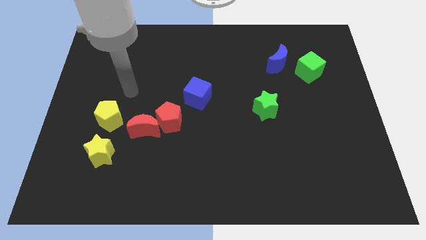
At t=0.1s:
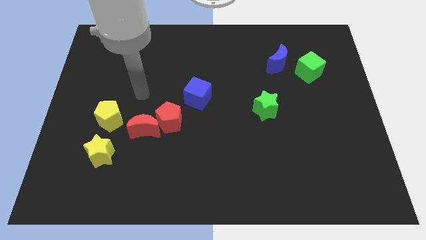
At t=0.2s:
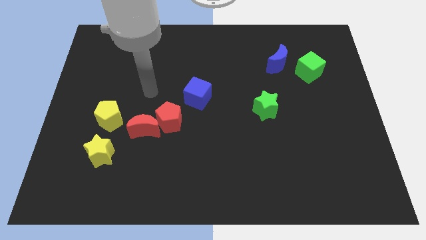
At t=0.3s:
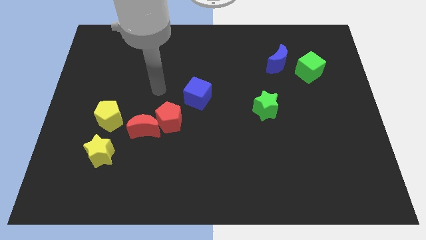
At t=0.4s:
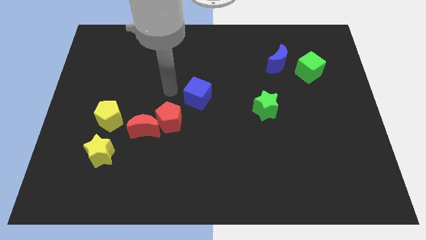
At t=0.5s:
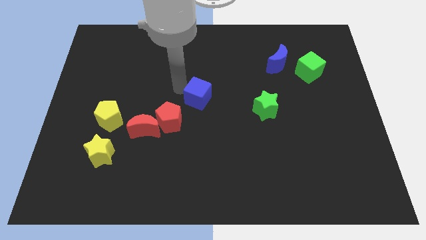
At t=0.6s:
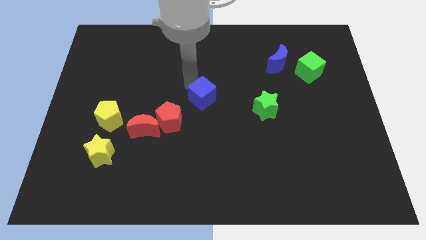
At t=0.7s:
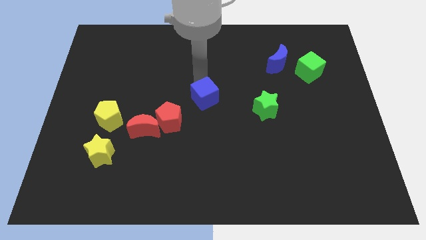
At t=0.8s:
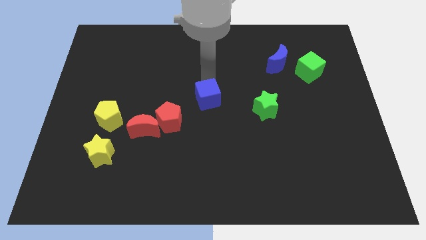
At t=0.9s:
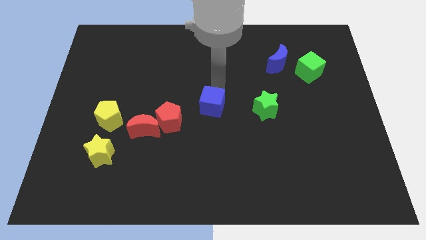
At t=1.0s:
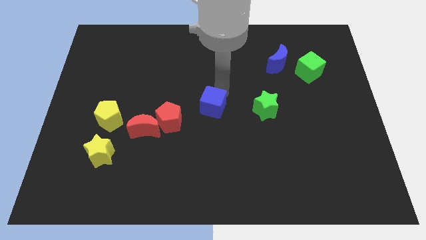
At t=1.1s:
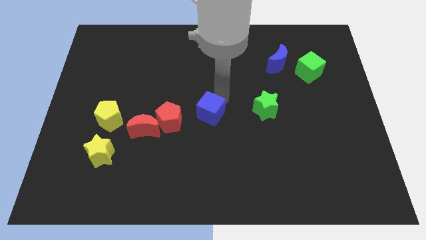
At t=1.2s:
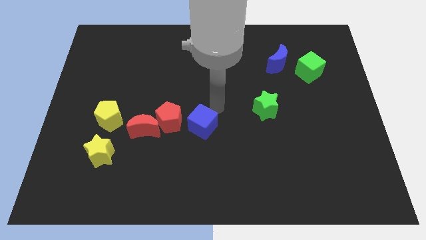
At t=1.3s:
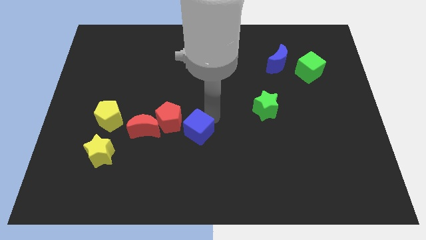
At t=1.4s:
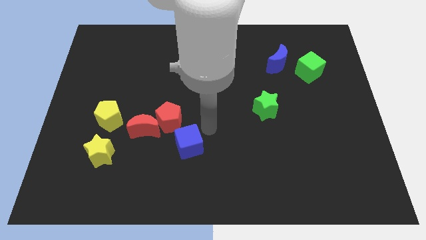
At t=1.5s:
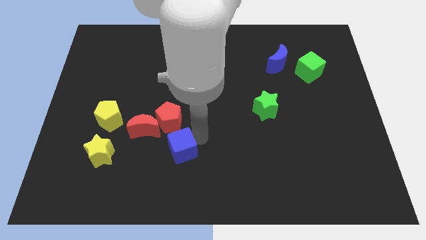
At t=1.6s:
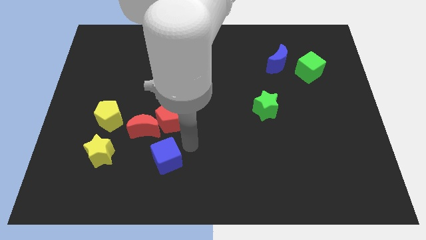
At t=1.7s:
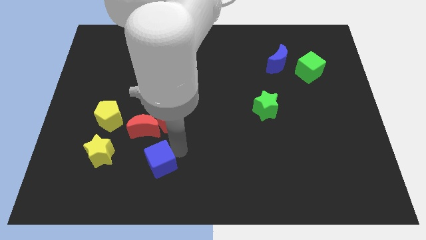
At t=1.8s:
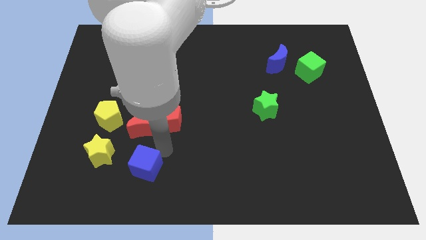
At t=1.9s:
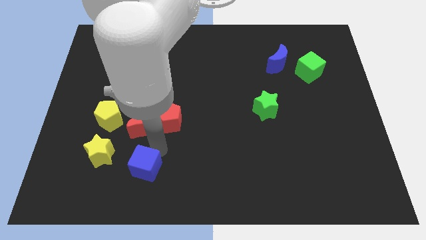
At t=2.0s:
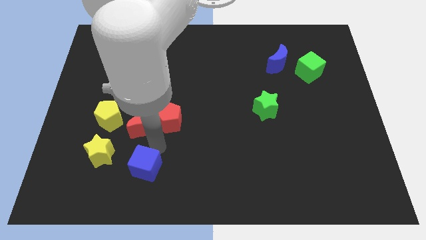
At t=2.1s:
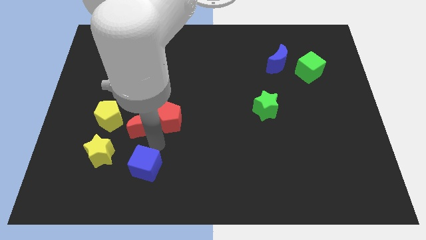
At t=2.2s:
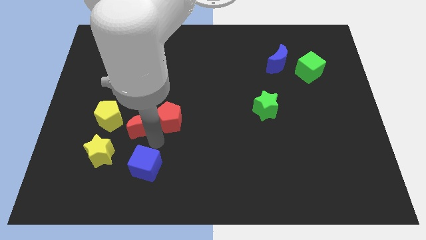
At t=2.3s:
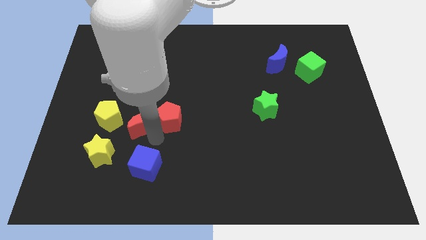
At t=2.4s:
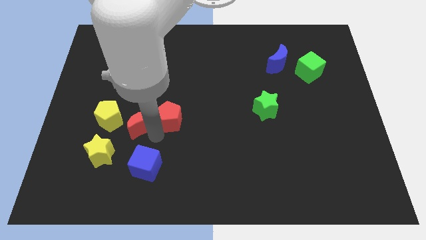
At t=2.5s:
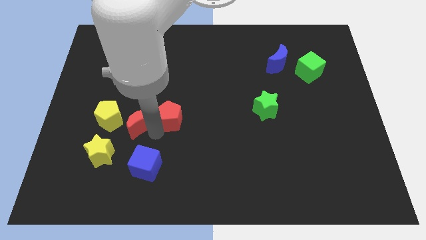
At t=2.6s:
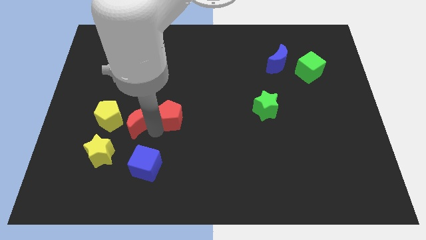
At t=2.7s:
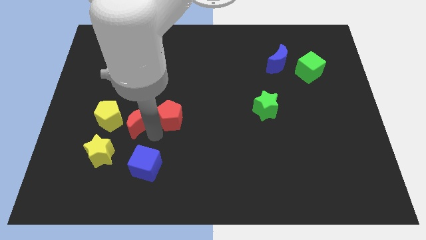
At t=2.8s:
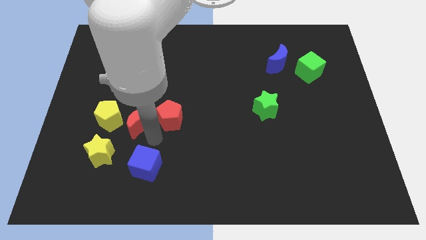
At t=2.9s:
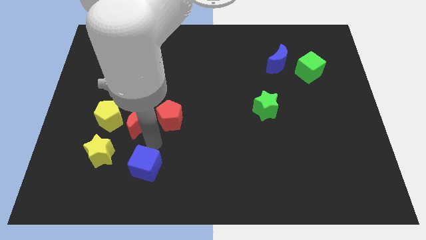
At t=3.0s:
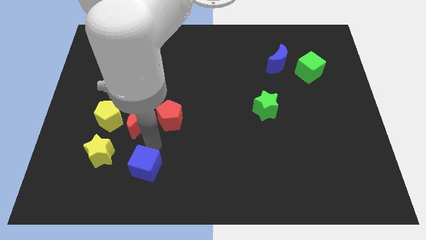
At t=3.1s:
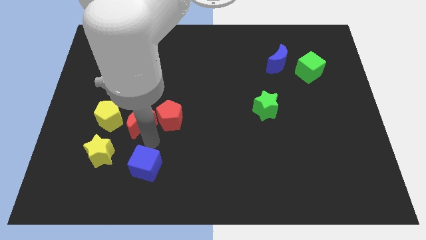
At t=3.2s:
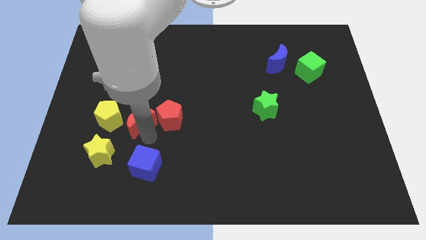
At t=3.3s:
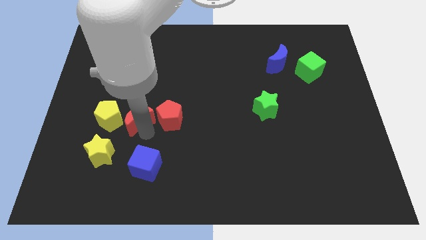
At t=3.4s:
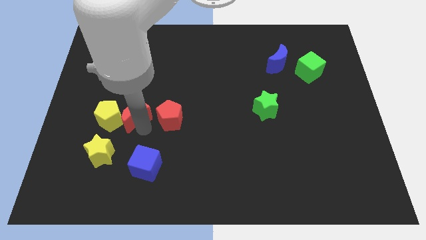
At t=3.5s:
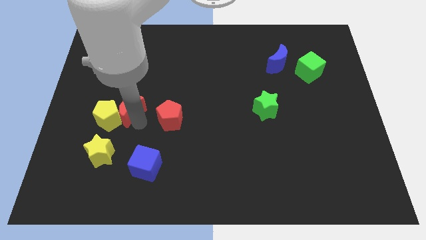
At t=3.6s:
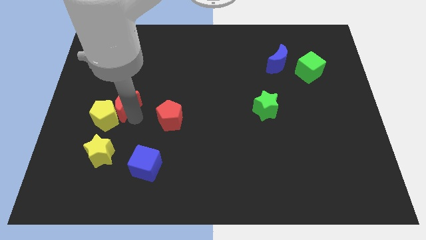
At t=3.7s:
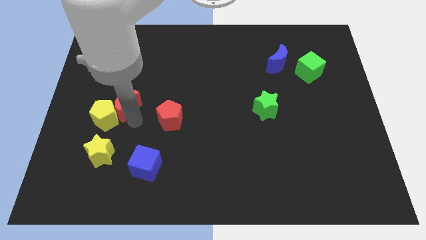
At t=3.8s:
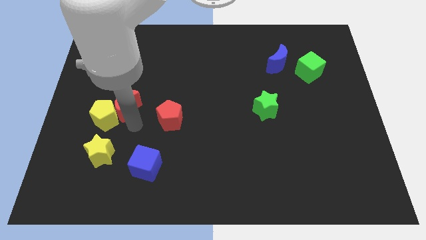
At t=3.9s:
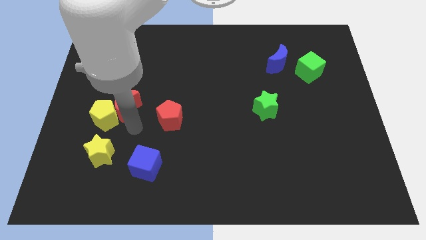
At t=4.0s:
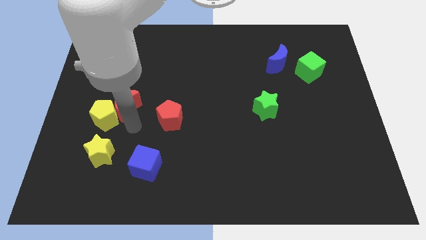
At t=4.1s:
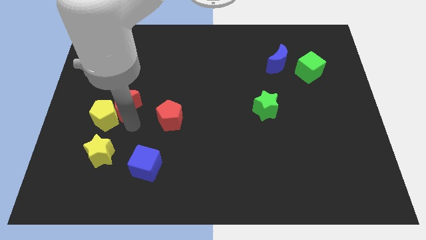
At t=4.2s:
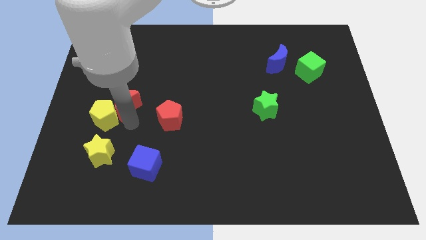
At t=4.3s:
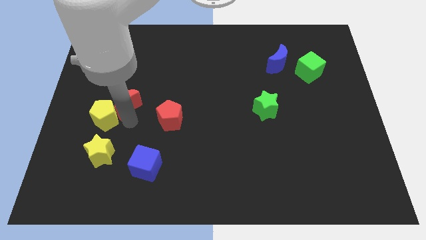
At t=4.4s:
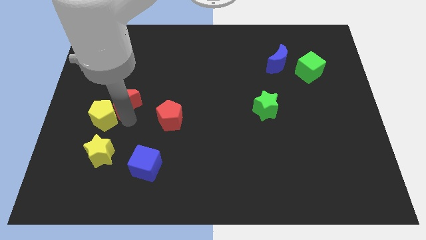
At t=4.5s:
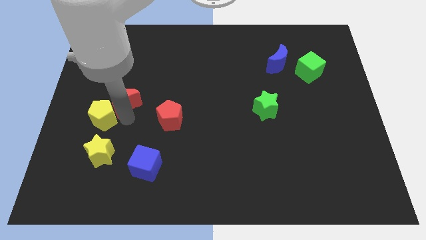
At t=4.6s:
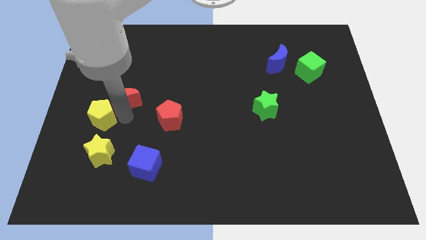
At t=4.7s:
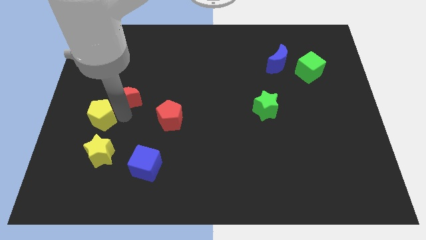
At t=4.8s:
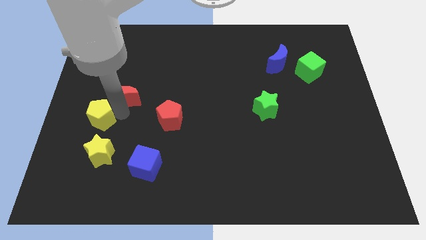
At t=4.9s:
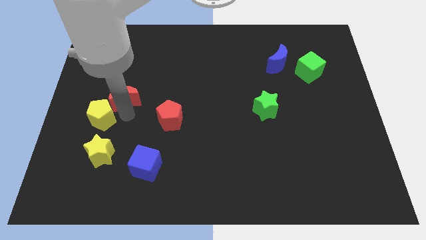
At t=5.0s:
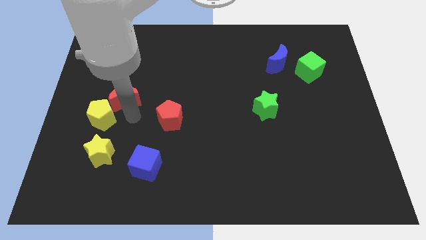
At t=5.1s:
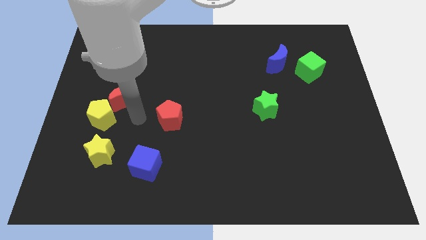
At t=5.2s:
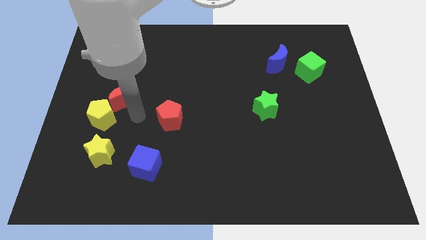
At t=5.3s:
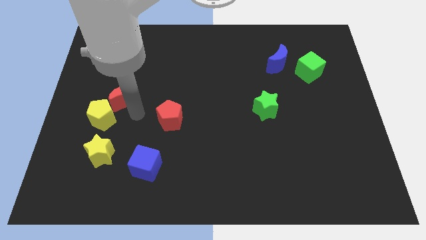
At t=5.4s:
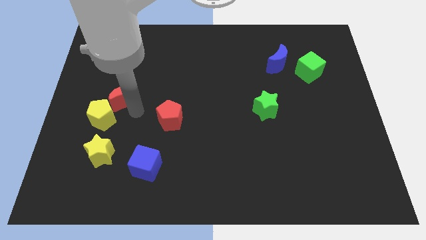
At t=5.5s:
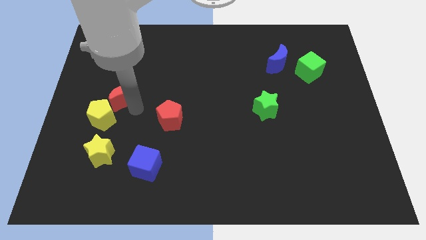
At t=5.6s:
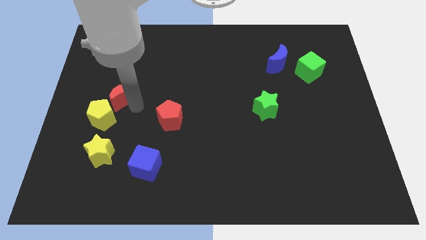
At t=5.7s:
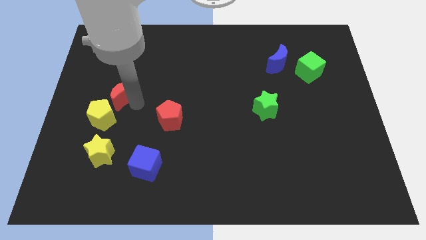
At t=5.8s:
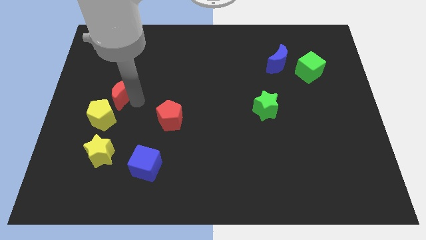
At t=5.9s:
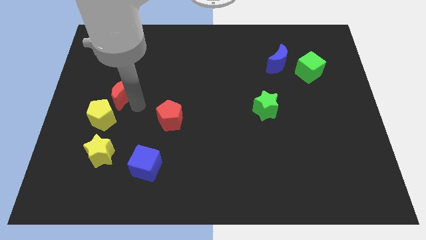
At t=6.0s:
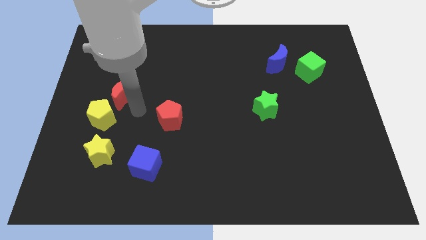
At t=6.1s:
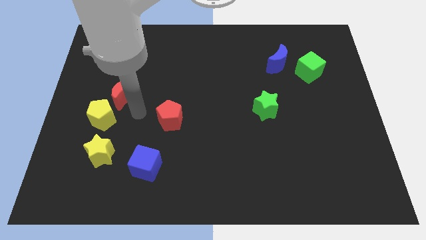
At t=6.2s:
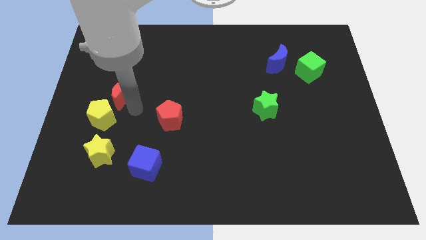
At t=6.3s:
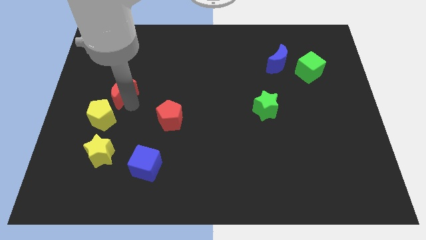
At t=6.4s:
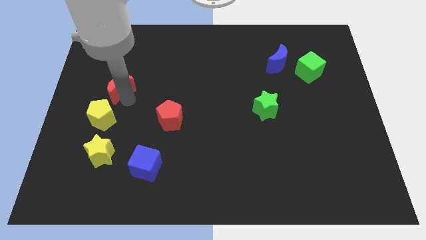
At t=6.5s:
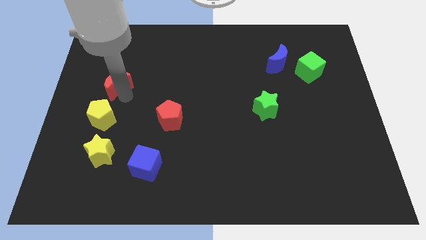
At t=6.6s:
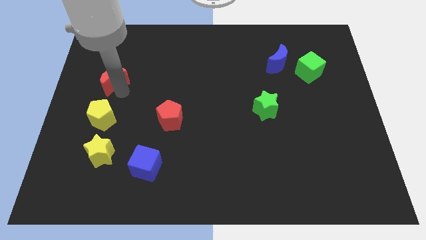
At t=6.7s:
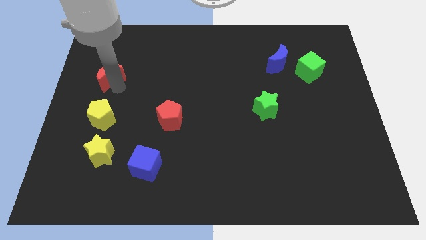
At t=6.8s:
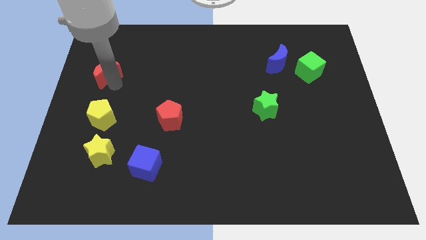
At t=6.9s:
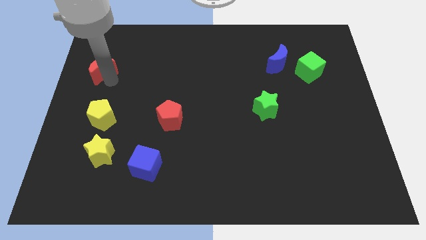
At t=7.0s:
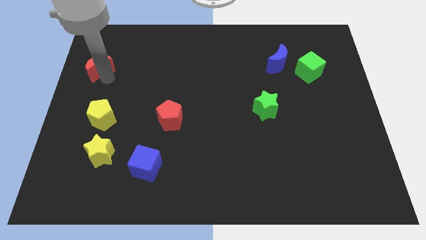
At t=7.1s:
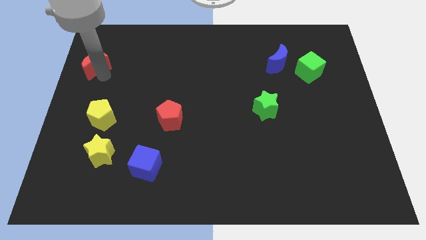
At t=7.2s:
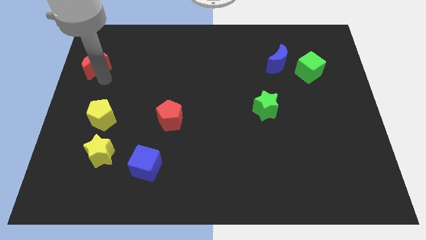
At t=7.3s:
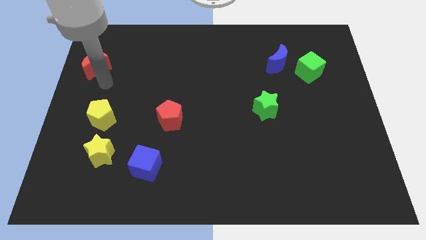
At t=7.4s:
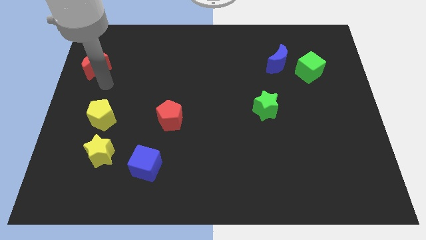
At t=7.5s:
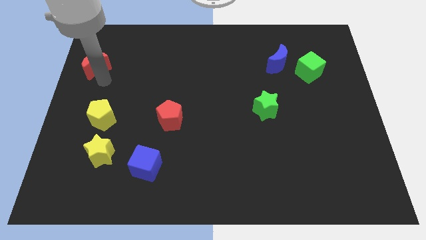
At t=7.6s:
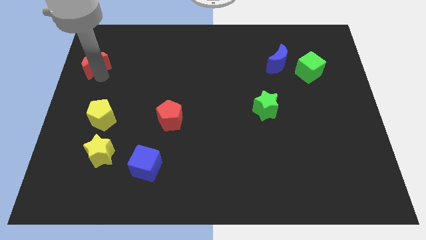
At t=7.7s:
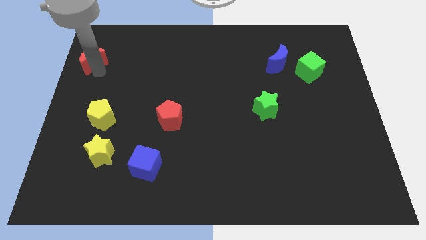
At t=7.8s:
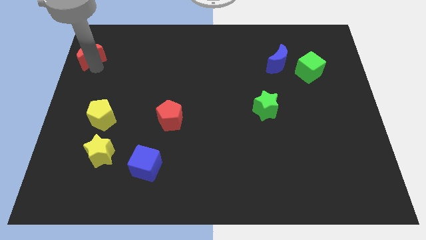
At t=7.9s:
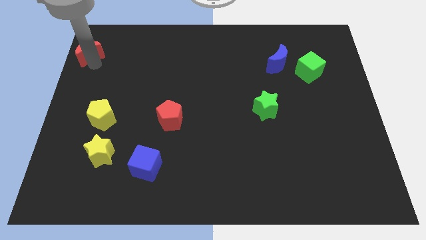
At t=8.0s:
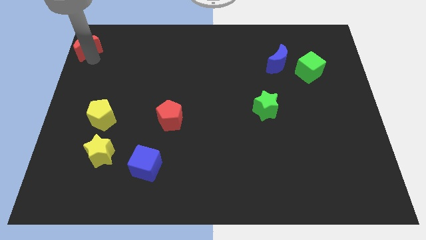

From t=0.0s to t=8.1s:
push the red moon to the upper left corner
